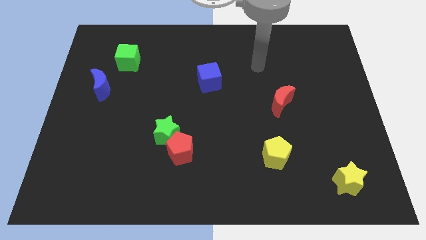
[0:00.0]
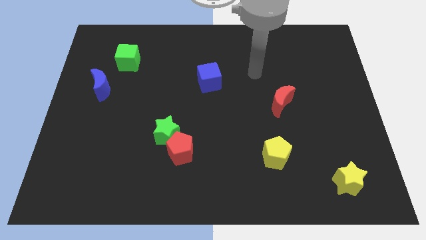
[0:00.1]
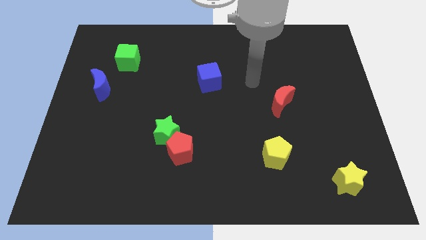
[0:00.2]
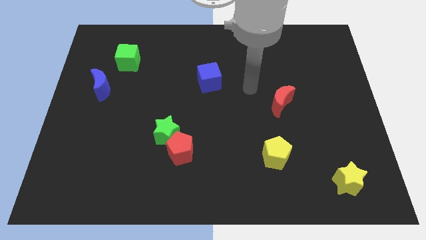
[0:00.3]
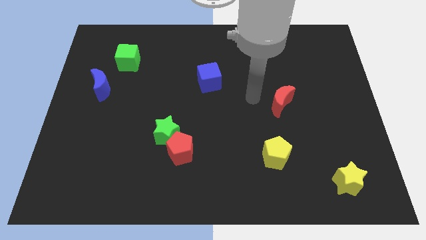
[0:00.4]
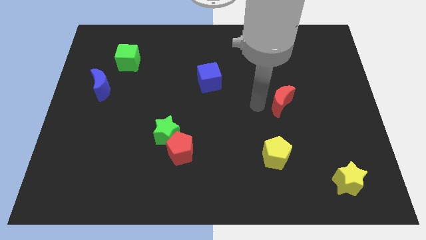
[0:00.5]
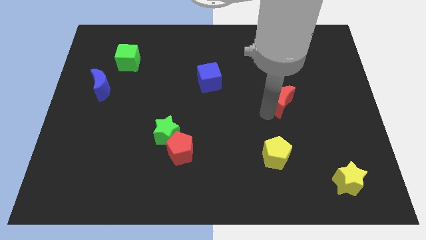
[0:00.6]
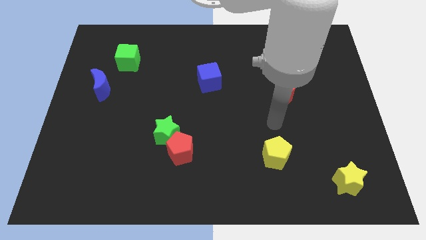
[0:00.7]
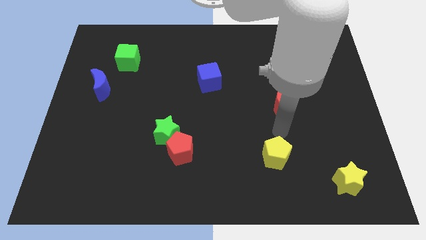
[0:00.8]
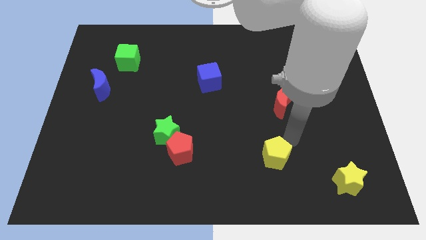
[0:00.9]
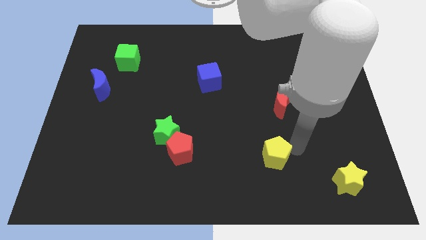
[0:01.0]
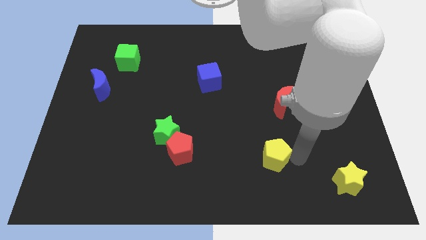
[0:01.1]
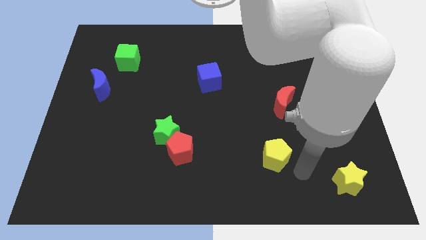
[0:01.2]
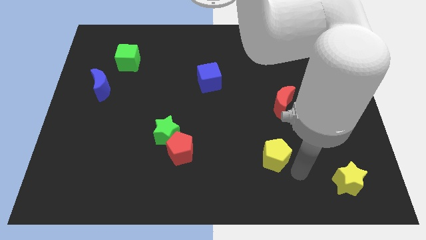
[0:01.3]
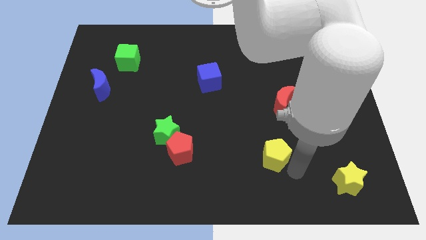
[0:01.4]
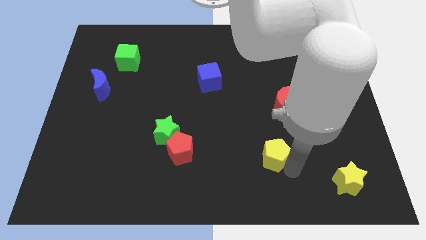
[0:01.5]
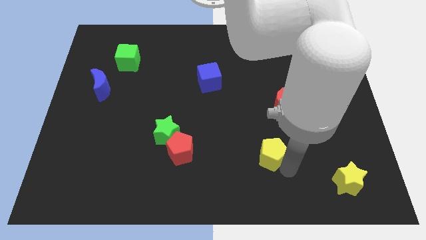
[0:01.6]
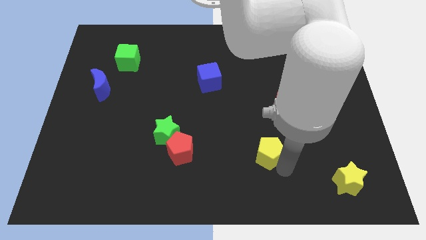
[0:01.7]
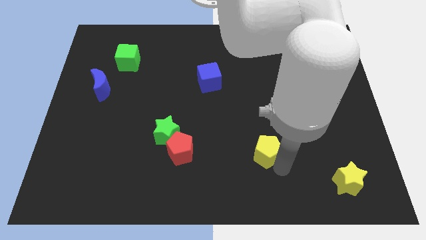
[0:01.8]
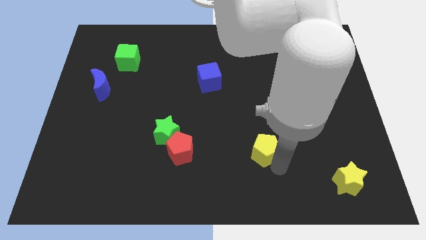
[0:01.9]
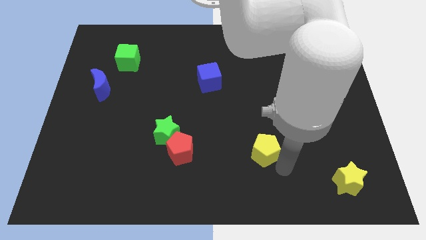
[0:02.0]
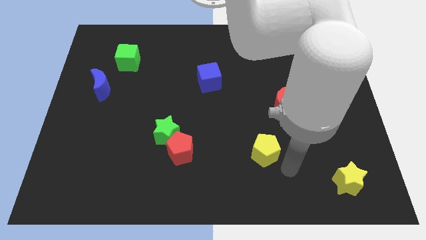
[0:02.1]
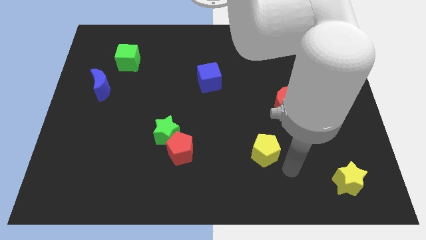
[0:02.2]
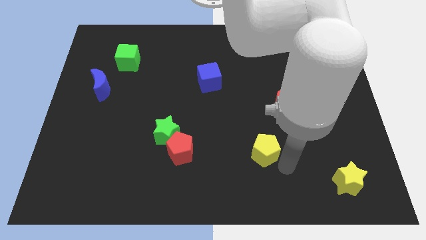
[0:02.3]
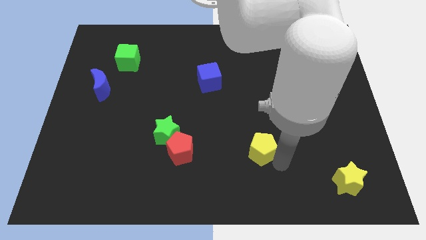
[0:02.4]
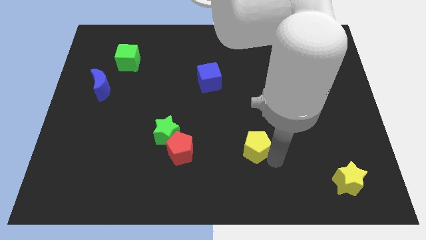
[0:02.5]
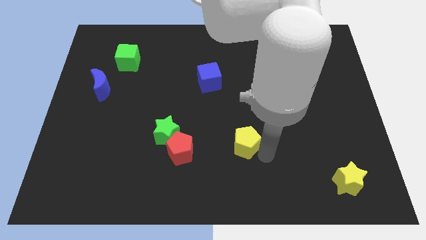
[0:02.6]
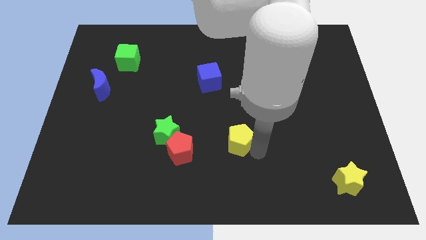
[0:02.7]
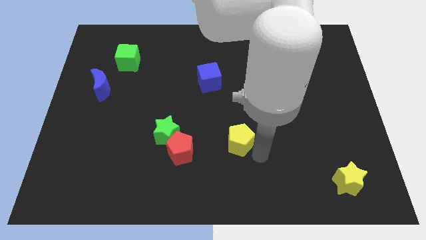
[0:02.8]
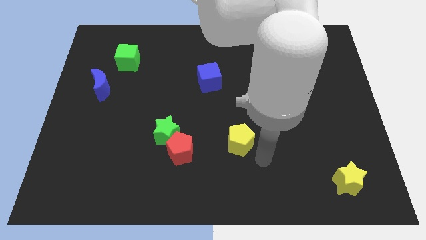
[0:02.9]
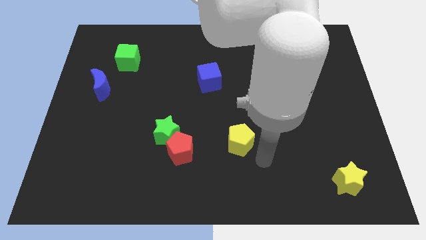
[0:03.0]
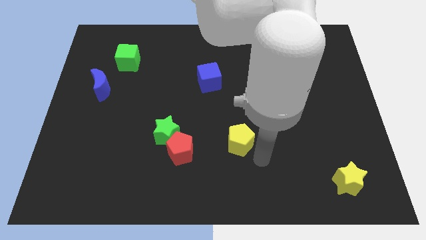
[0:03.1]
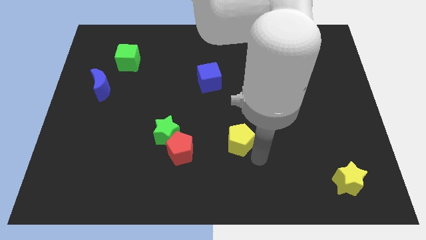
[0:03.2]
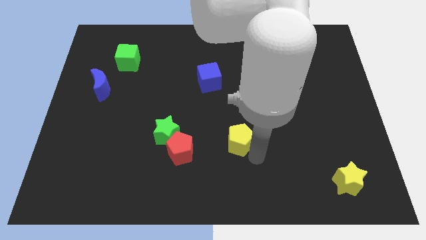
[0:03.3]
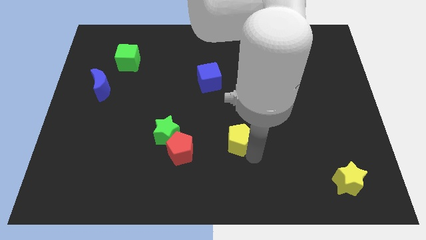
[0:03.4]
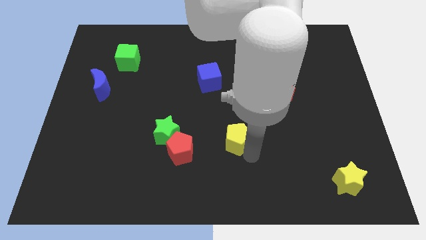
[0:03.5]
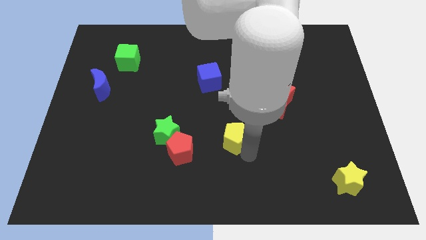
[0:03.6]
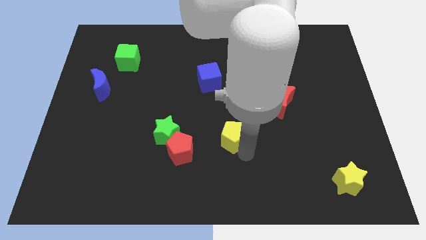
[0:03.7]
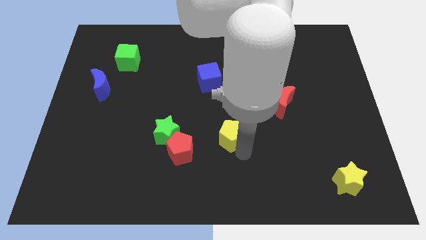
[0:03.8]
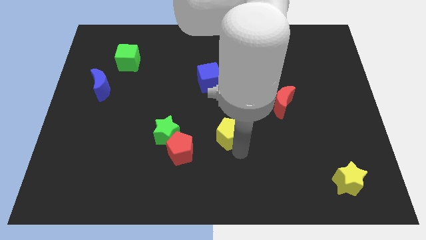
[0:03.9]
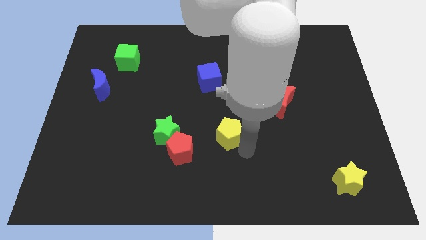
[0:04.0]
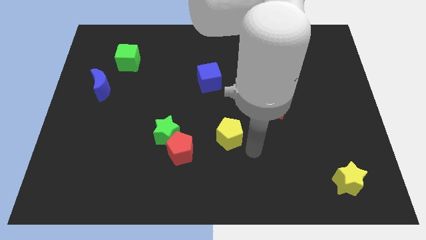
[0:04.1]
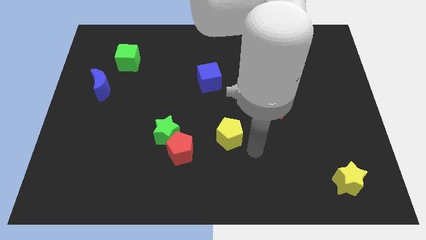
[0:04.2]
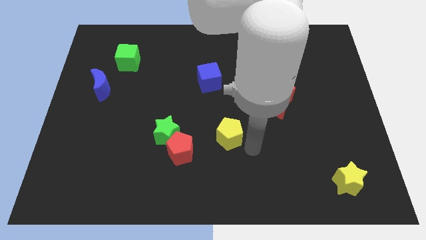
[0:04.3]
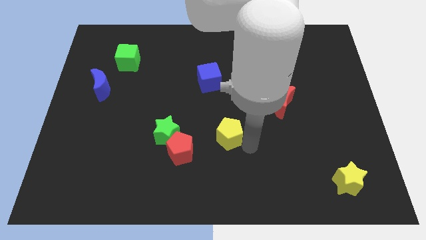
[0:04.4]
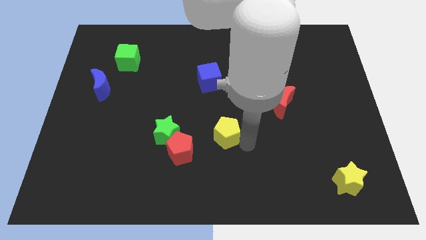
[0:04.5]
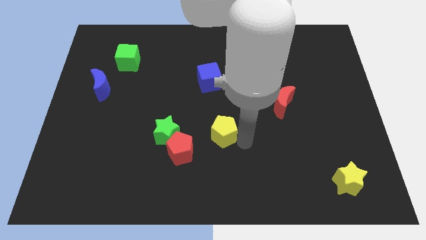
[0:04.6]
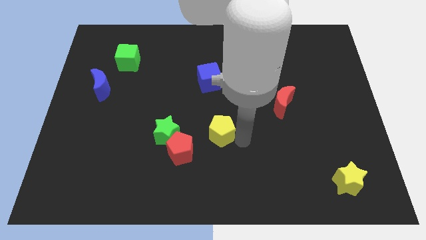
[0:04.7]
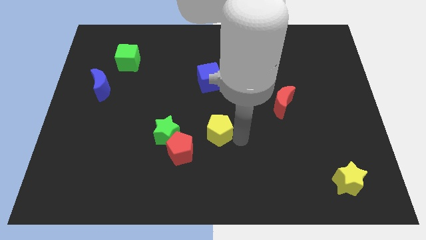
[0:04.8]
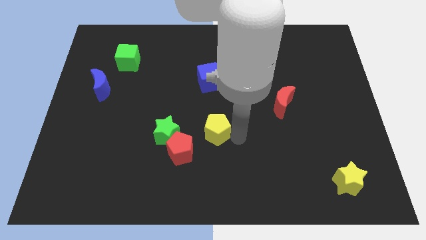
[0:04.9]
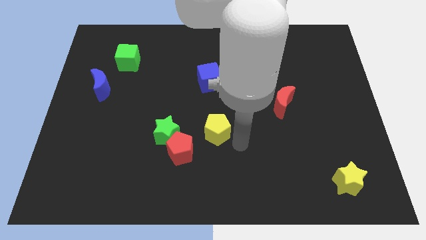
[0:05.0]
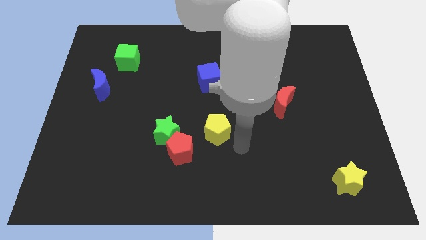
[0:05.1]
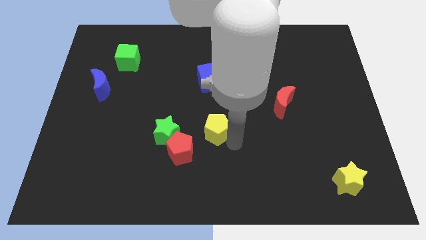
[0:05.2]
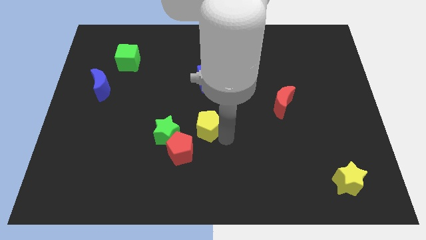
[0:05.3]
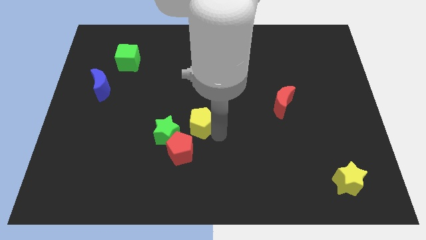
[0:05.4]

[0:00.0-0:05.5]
move the yellow pentagon to the top of the red pentagon

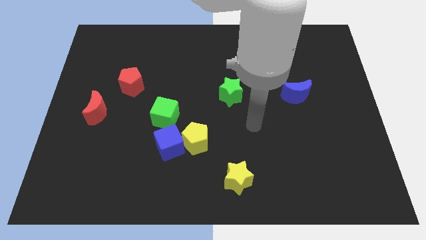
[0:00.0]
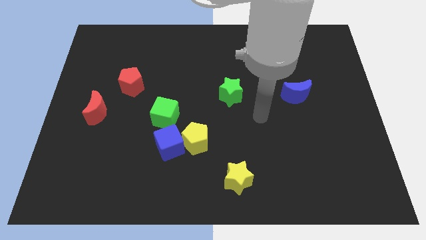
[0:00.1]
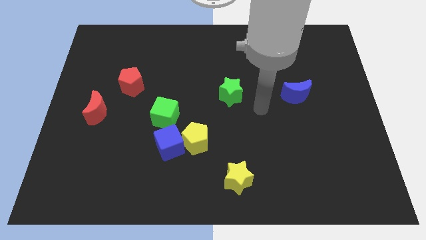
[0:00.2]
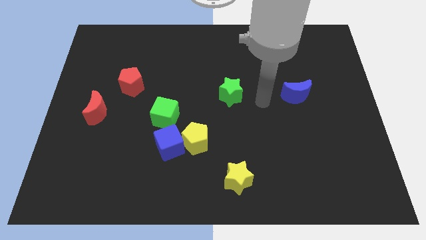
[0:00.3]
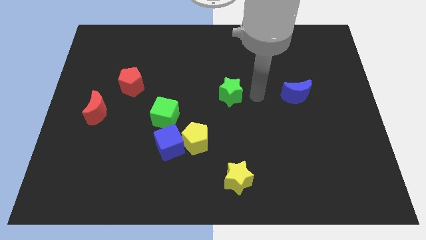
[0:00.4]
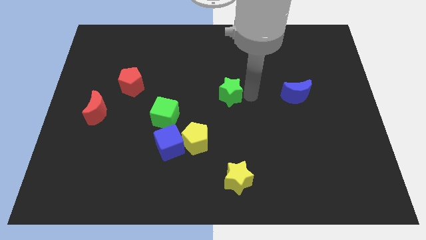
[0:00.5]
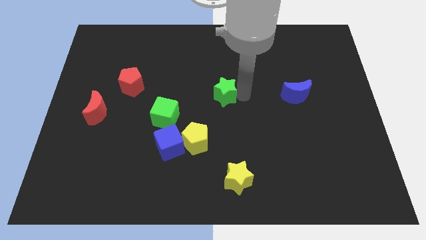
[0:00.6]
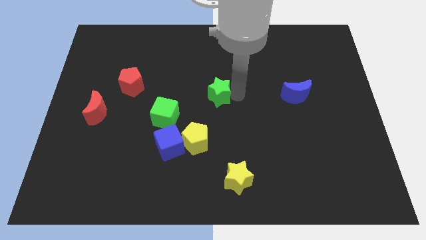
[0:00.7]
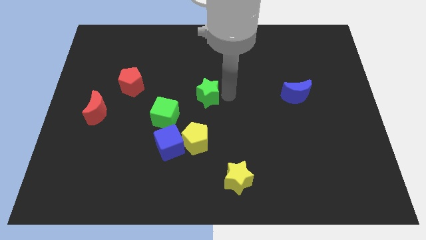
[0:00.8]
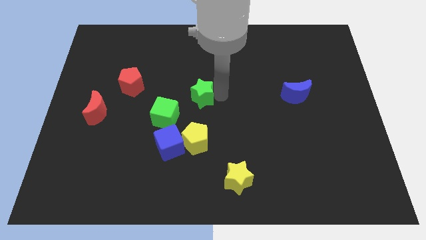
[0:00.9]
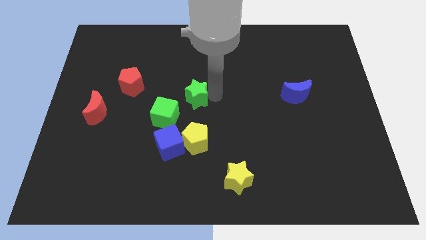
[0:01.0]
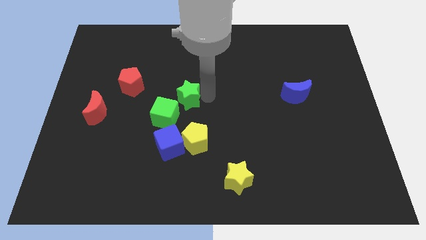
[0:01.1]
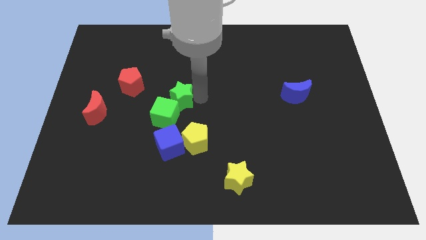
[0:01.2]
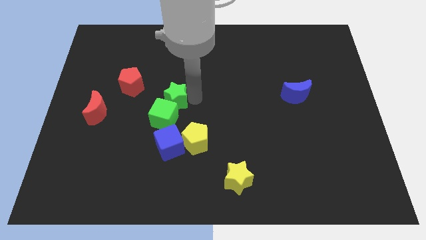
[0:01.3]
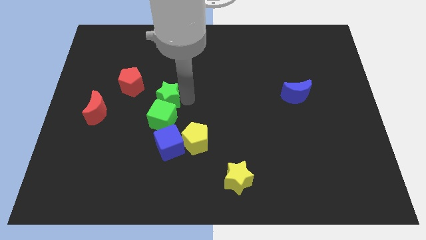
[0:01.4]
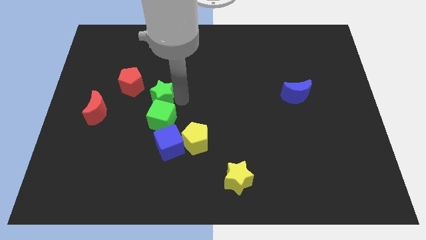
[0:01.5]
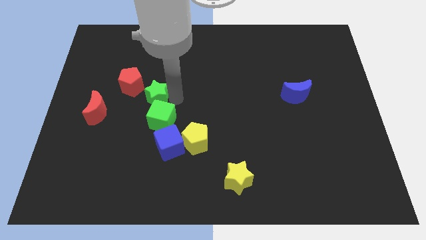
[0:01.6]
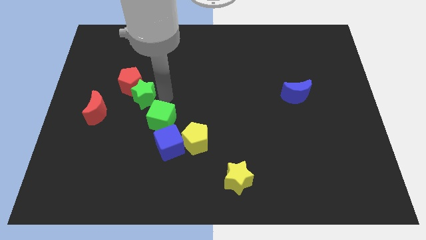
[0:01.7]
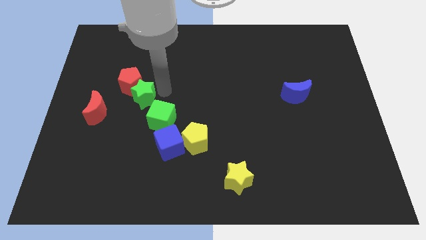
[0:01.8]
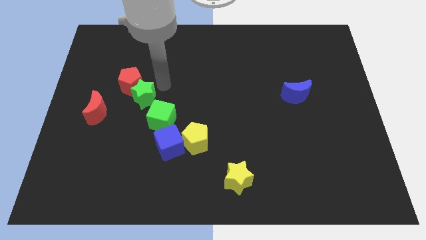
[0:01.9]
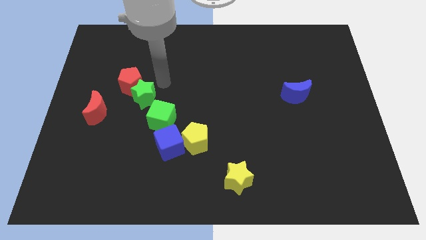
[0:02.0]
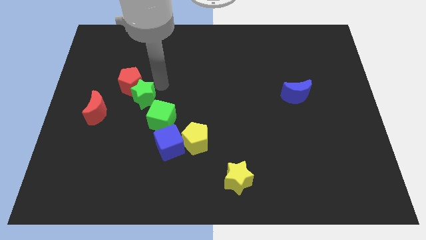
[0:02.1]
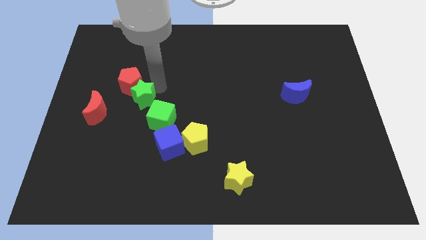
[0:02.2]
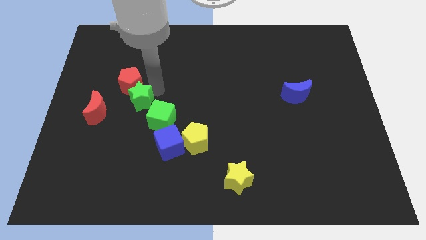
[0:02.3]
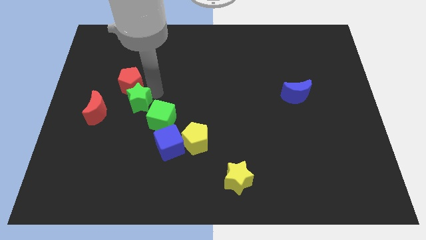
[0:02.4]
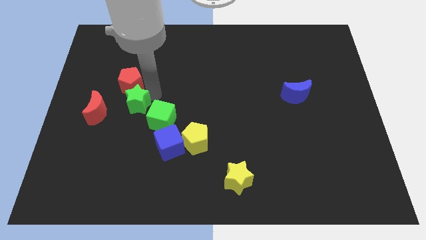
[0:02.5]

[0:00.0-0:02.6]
move the green star just left of the green cube
